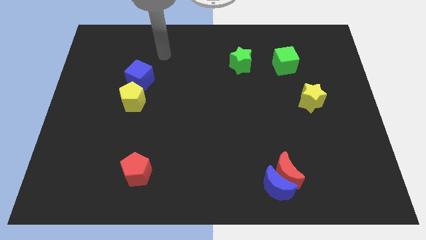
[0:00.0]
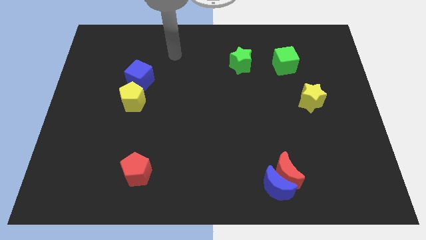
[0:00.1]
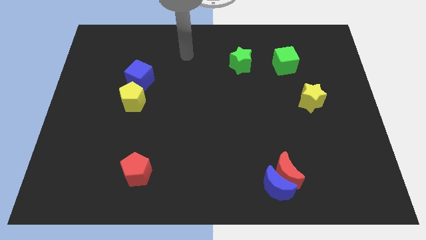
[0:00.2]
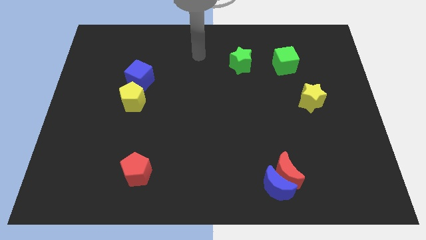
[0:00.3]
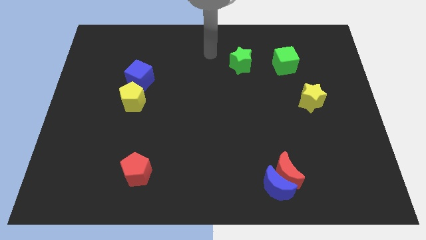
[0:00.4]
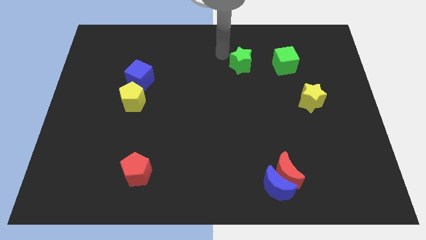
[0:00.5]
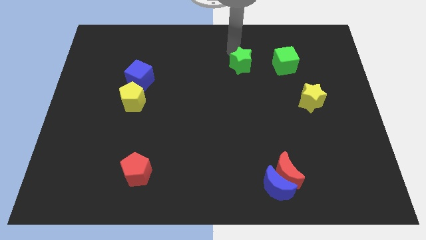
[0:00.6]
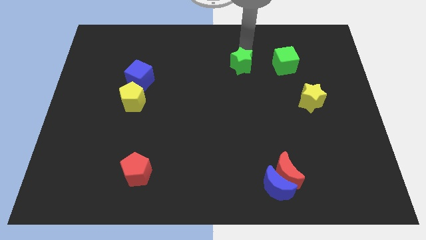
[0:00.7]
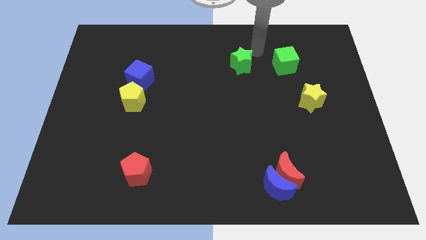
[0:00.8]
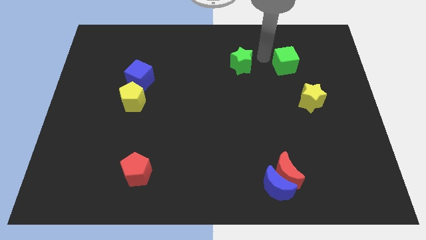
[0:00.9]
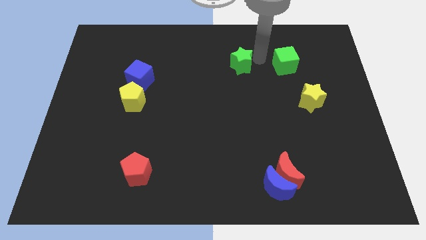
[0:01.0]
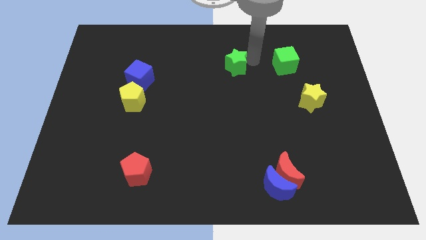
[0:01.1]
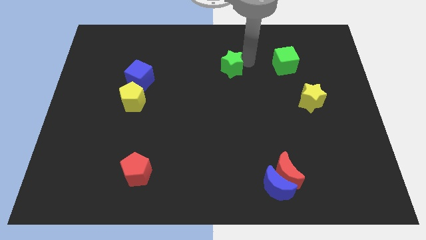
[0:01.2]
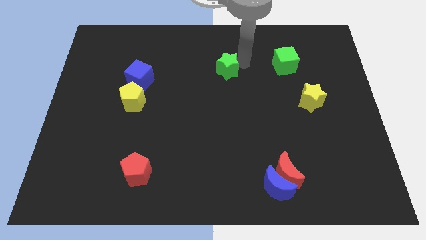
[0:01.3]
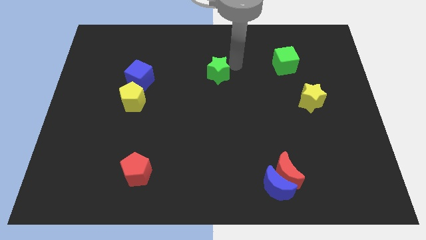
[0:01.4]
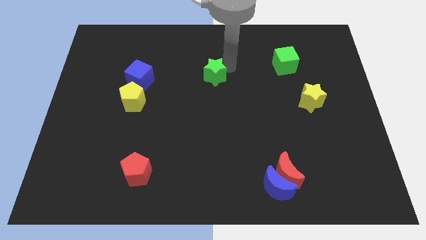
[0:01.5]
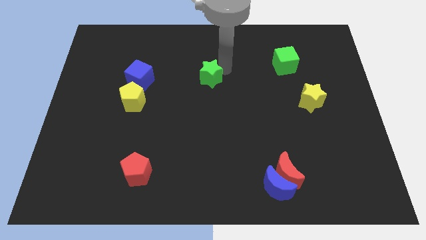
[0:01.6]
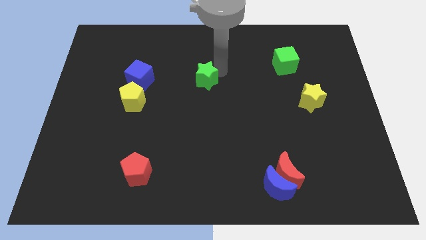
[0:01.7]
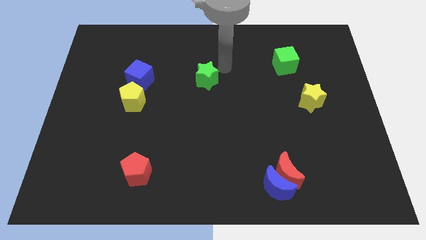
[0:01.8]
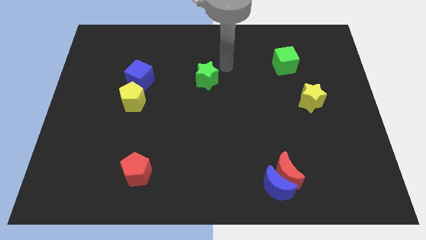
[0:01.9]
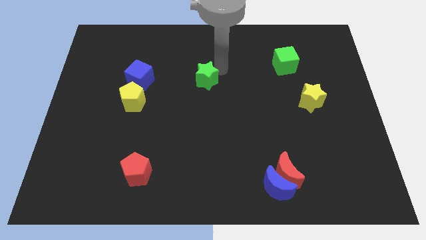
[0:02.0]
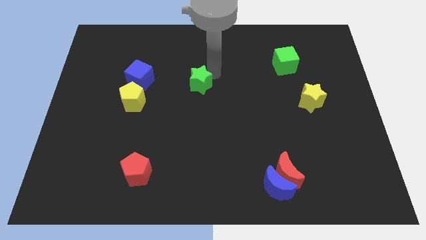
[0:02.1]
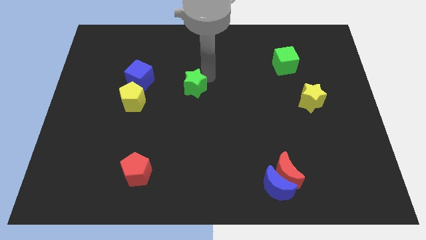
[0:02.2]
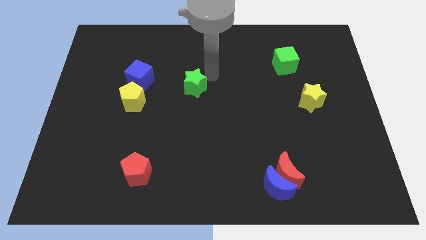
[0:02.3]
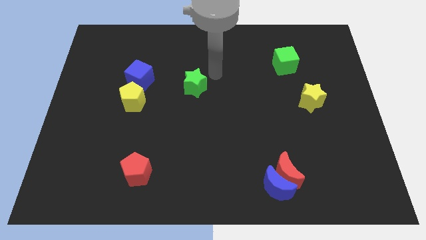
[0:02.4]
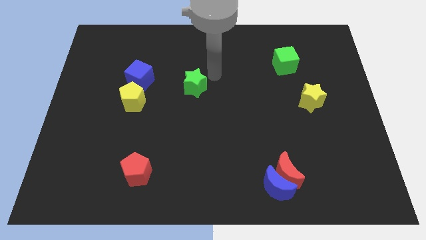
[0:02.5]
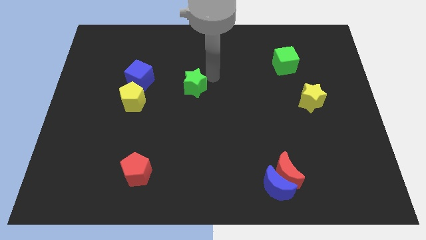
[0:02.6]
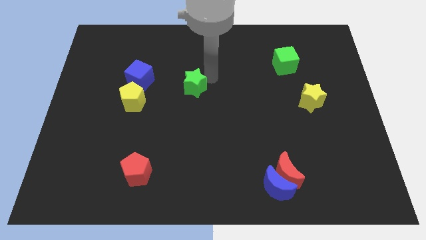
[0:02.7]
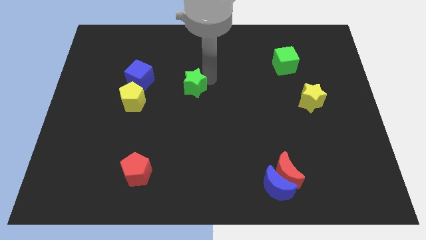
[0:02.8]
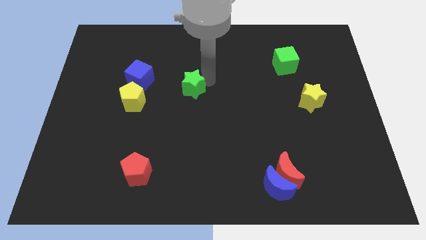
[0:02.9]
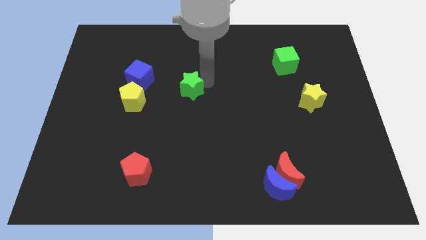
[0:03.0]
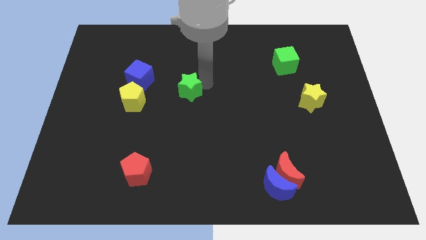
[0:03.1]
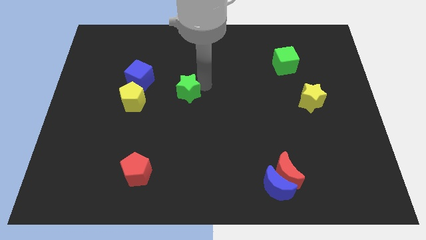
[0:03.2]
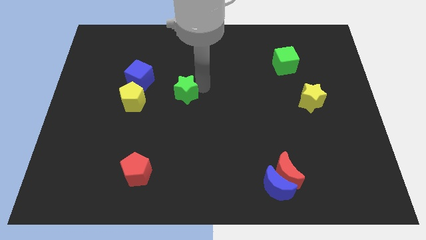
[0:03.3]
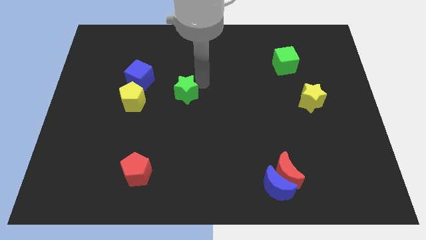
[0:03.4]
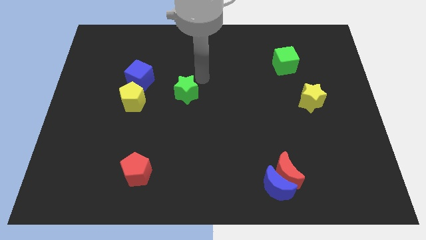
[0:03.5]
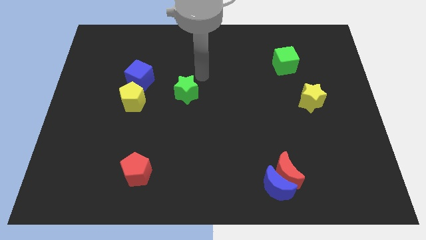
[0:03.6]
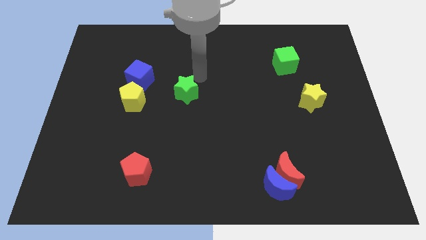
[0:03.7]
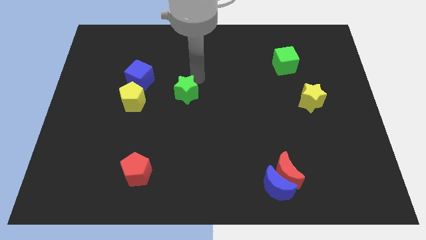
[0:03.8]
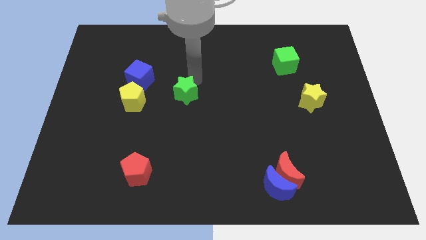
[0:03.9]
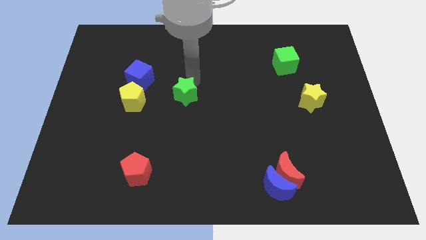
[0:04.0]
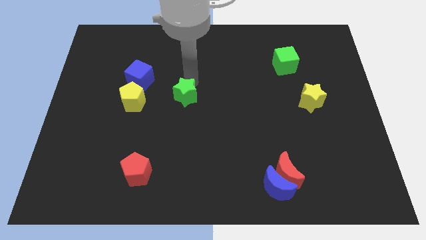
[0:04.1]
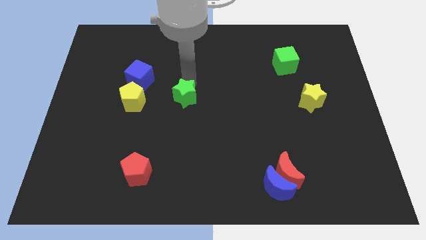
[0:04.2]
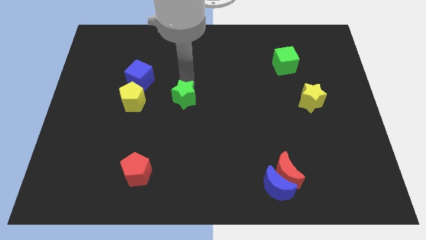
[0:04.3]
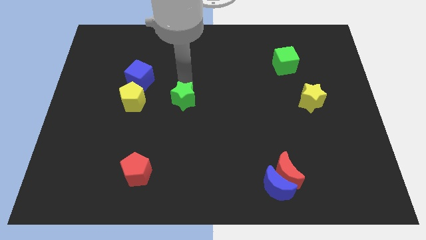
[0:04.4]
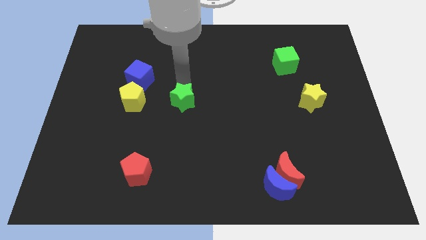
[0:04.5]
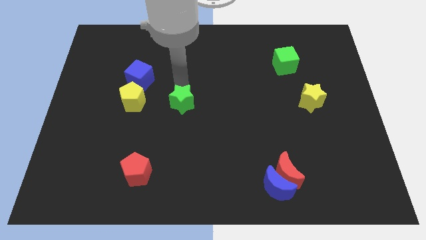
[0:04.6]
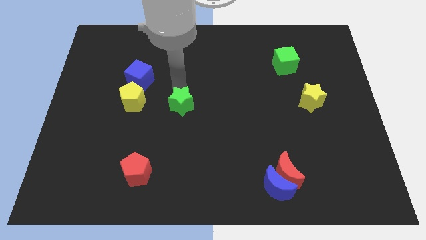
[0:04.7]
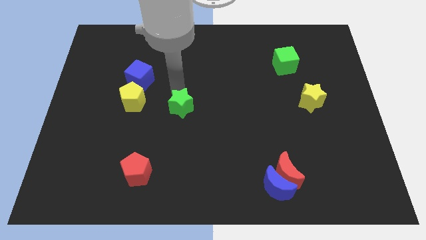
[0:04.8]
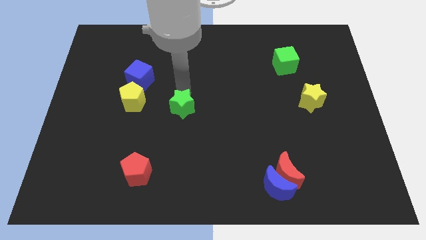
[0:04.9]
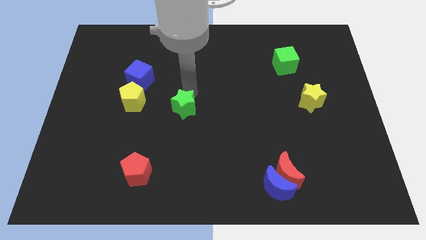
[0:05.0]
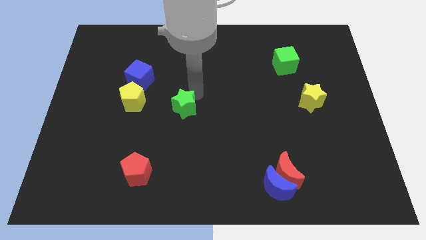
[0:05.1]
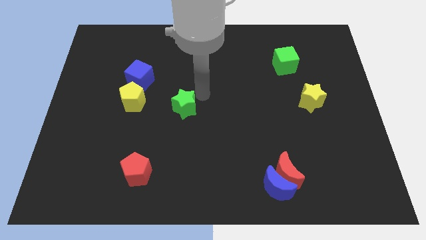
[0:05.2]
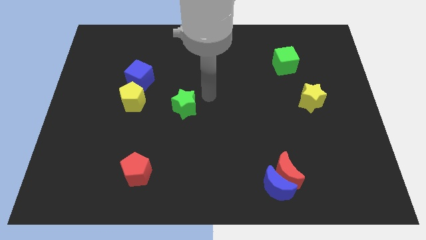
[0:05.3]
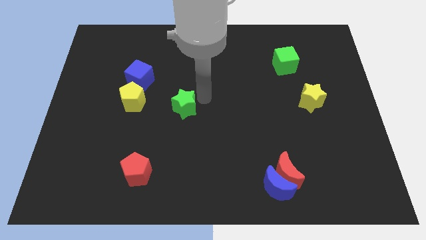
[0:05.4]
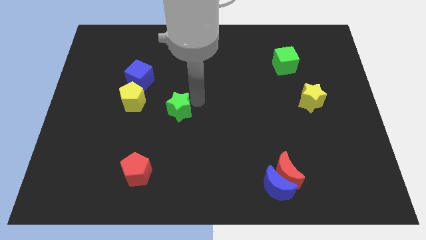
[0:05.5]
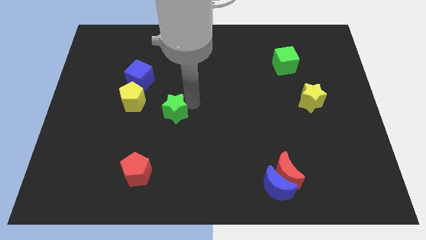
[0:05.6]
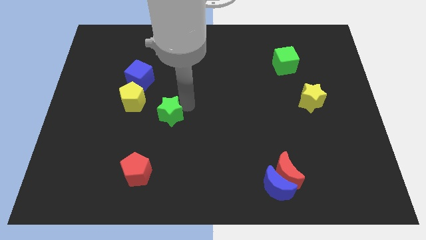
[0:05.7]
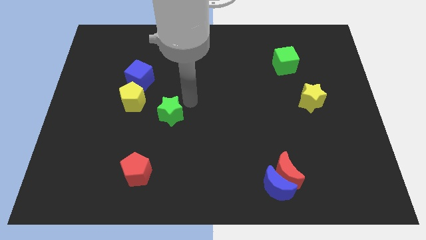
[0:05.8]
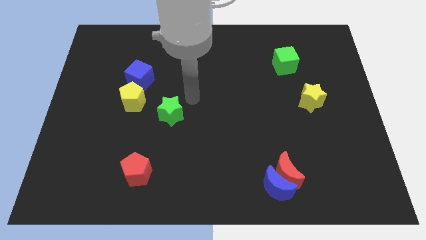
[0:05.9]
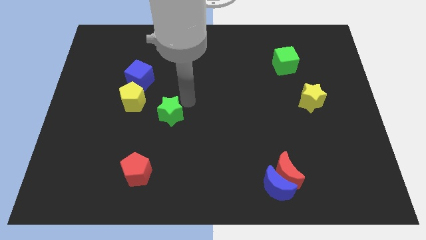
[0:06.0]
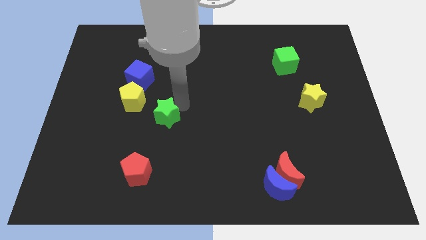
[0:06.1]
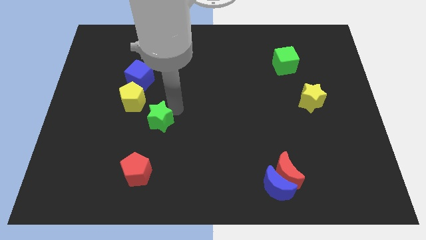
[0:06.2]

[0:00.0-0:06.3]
put the green star to the top side of the red pentagon

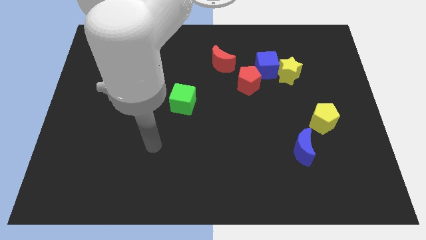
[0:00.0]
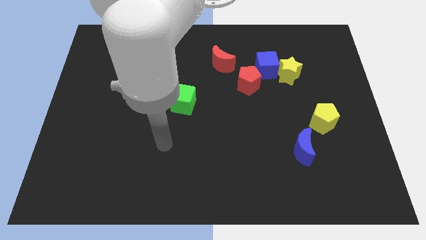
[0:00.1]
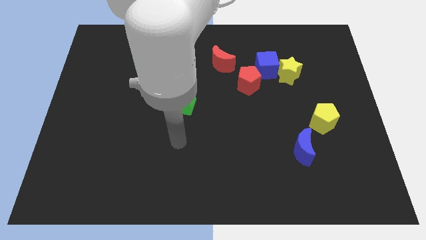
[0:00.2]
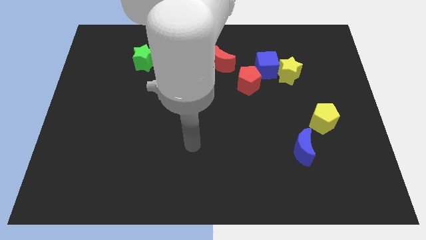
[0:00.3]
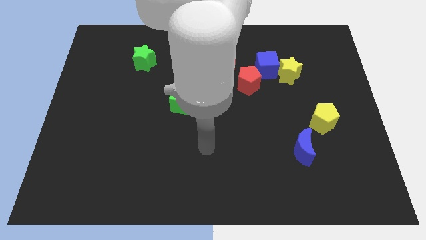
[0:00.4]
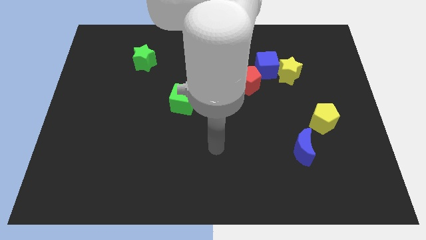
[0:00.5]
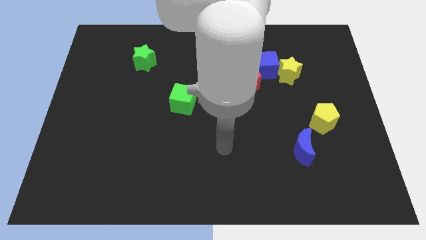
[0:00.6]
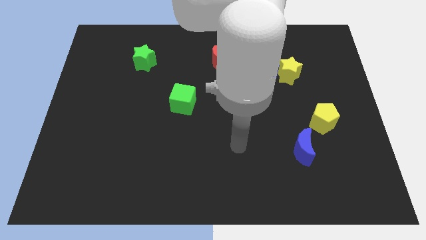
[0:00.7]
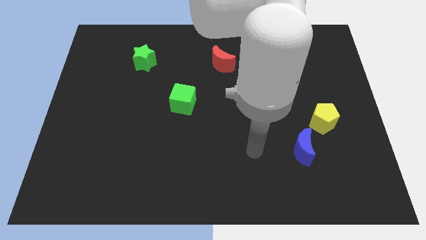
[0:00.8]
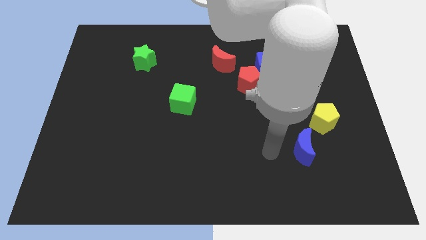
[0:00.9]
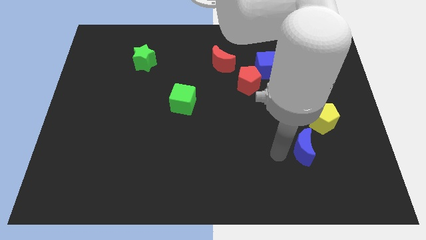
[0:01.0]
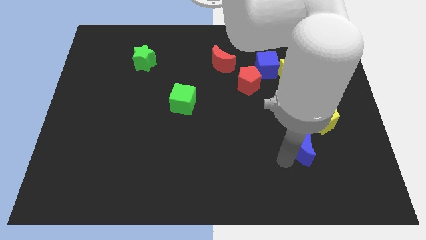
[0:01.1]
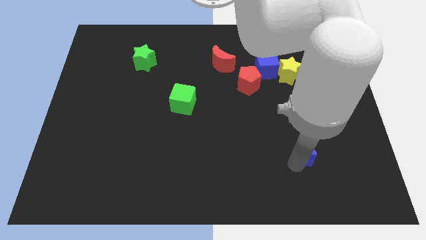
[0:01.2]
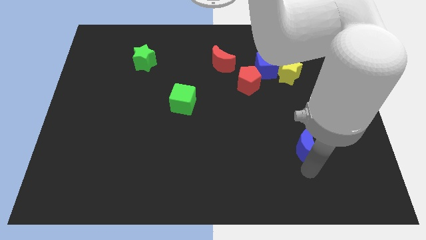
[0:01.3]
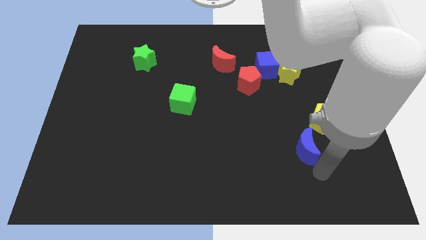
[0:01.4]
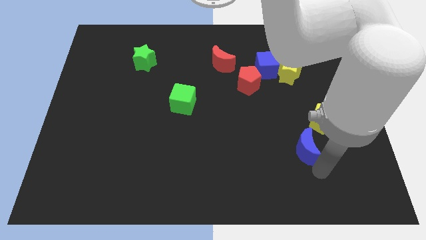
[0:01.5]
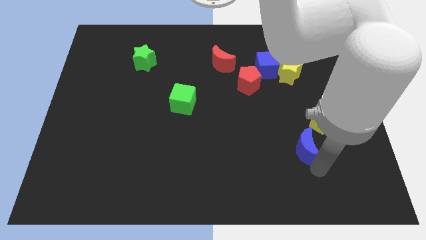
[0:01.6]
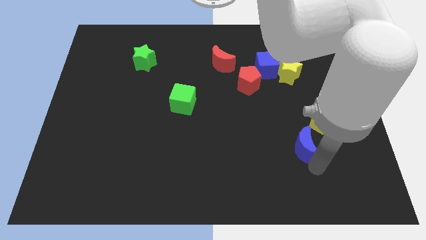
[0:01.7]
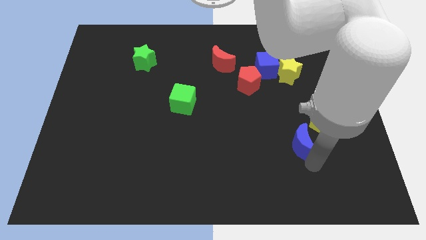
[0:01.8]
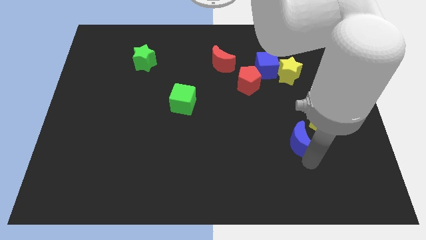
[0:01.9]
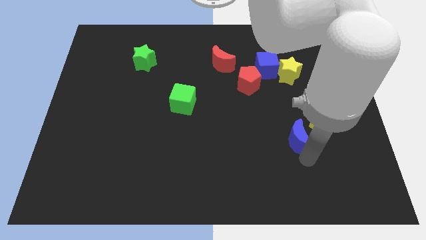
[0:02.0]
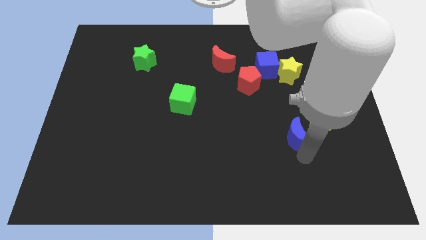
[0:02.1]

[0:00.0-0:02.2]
put the blue moon to the left of the yellow pentagon
